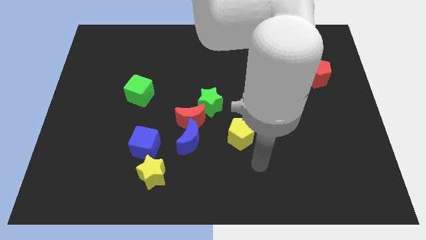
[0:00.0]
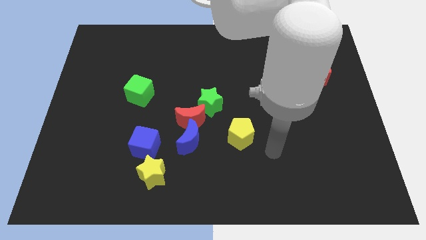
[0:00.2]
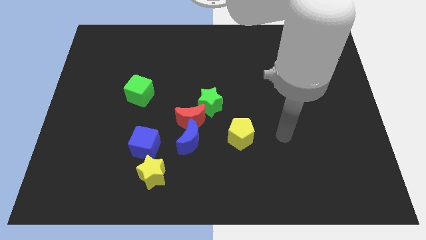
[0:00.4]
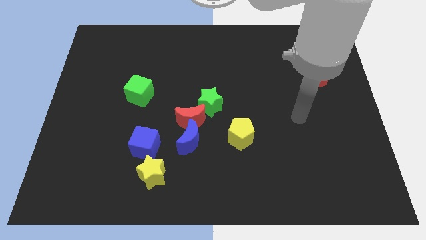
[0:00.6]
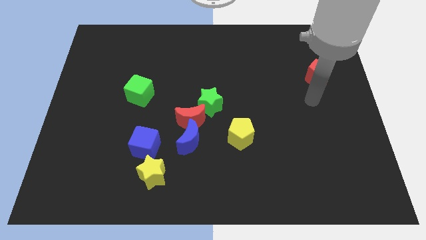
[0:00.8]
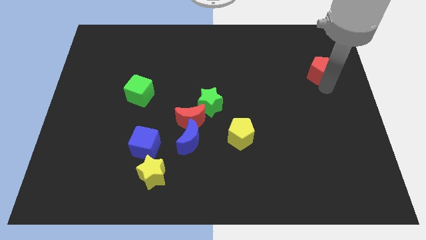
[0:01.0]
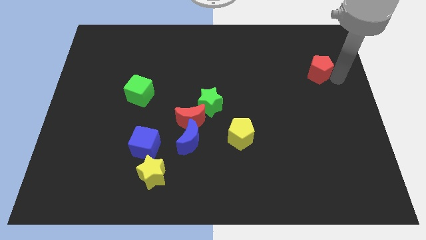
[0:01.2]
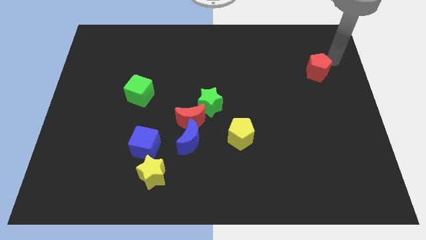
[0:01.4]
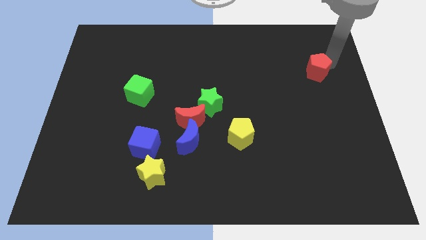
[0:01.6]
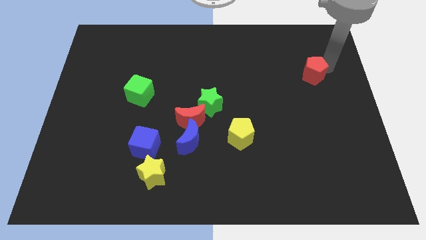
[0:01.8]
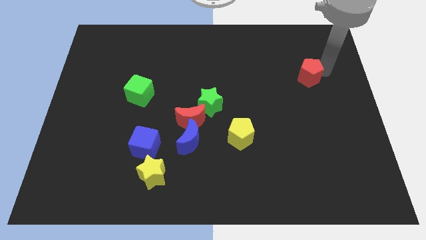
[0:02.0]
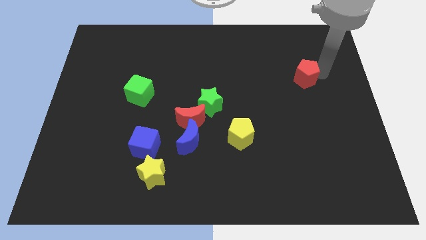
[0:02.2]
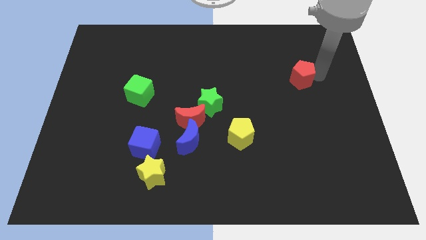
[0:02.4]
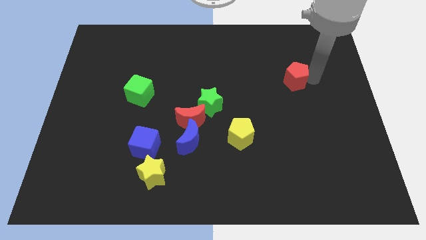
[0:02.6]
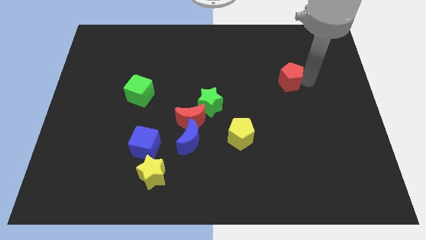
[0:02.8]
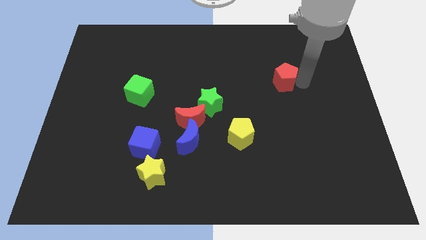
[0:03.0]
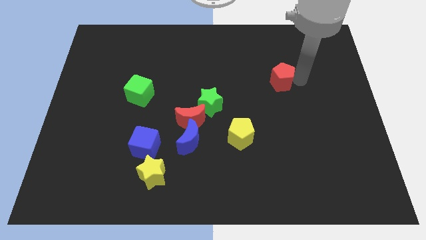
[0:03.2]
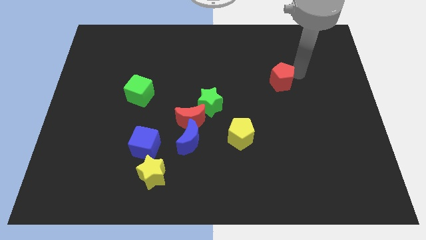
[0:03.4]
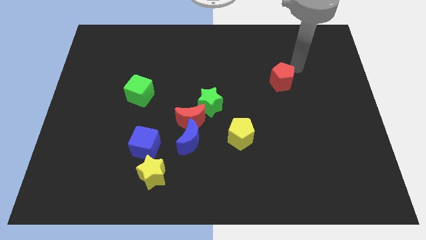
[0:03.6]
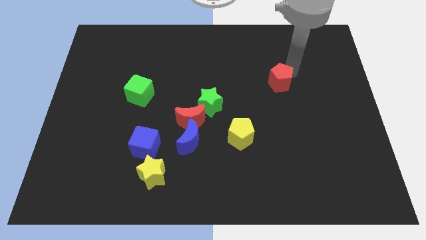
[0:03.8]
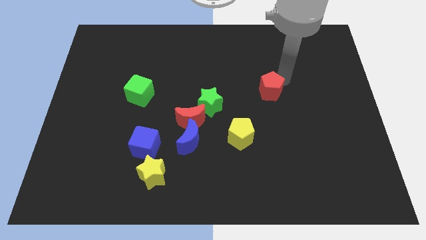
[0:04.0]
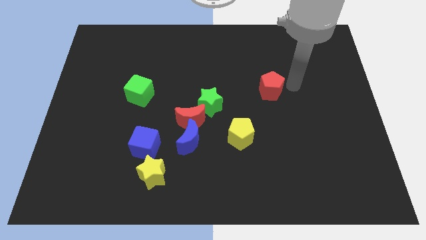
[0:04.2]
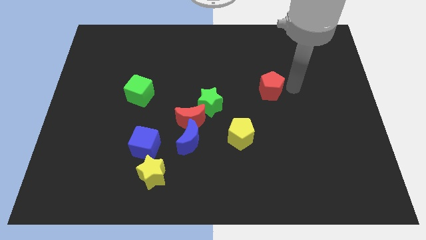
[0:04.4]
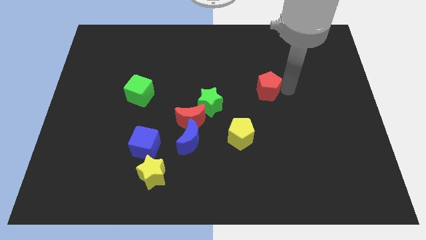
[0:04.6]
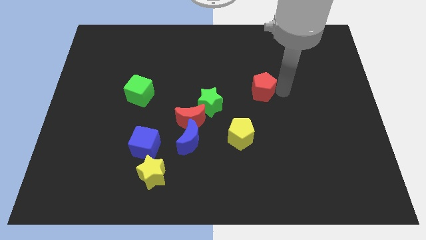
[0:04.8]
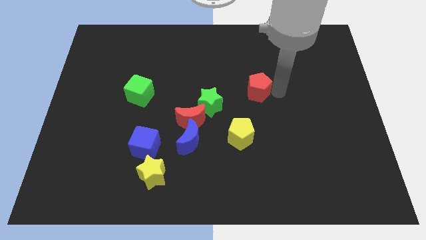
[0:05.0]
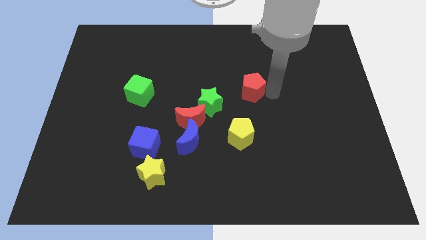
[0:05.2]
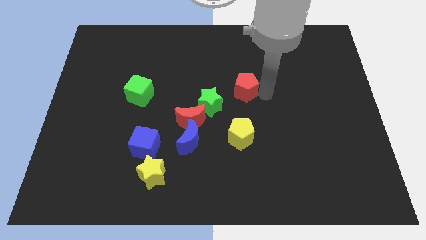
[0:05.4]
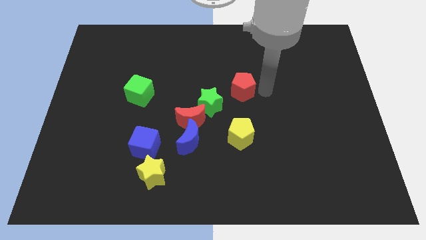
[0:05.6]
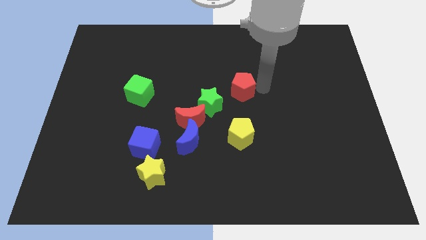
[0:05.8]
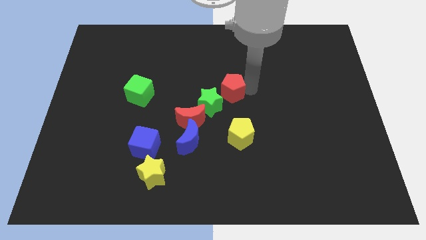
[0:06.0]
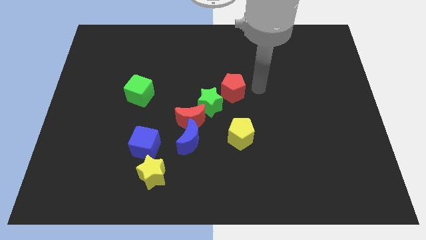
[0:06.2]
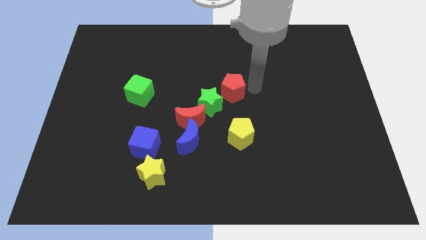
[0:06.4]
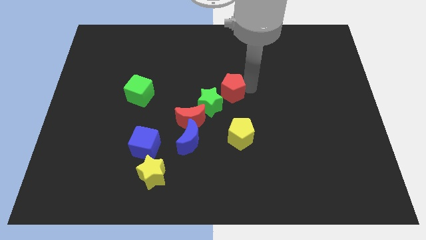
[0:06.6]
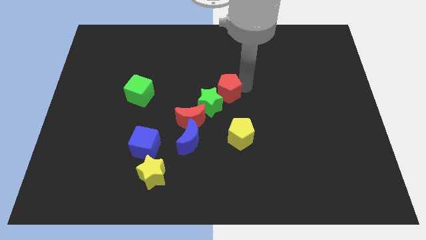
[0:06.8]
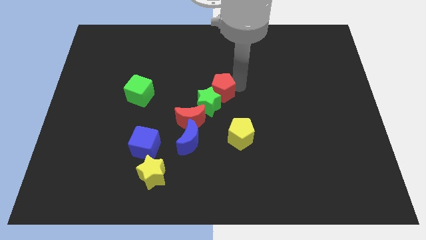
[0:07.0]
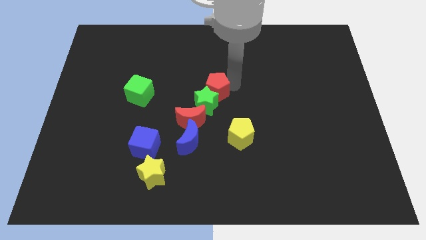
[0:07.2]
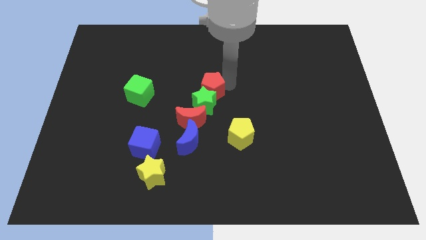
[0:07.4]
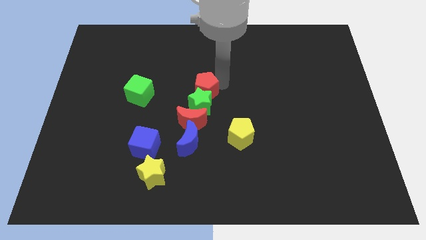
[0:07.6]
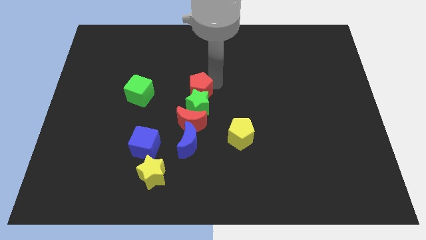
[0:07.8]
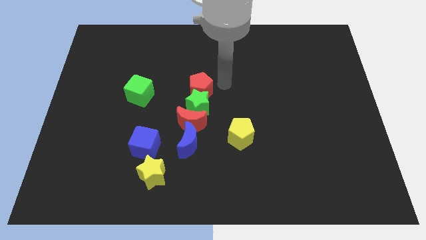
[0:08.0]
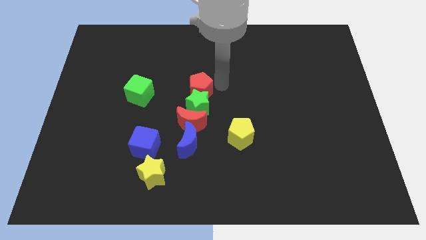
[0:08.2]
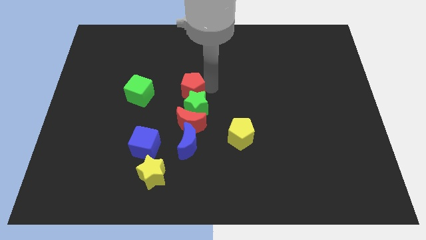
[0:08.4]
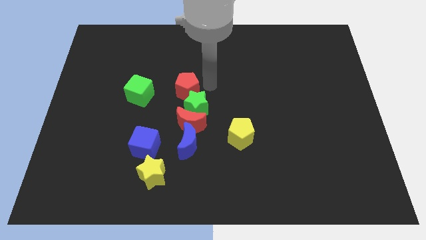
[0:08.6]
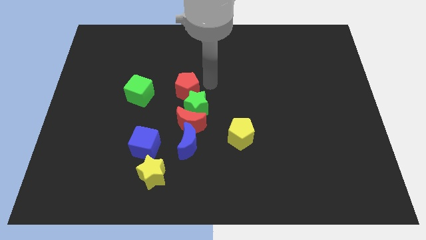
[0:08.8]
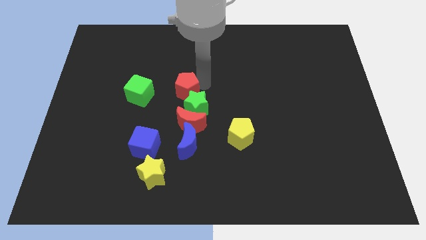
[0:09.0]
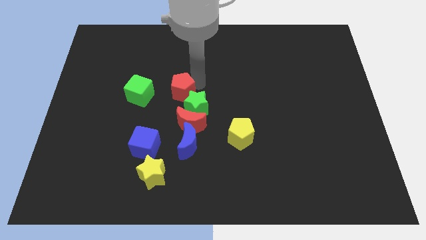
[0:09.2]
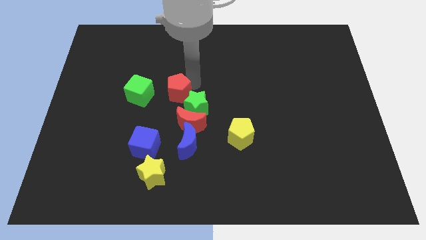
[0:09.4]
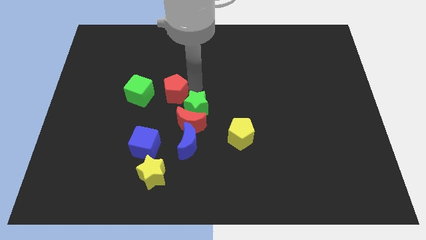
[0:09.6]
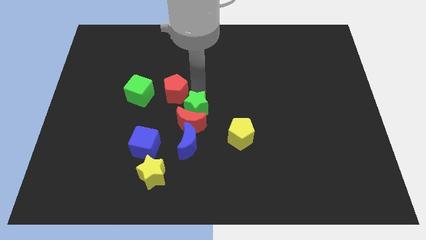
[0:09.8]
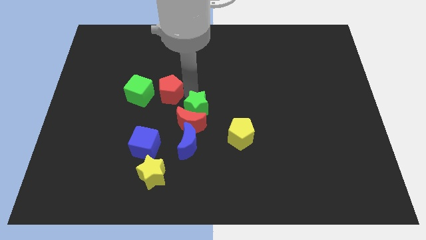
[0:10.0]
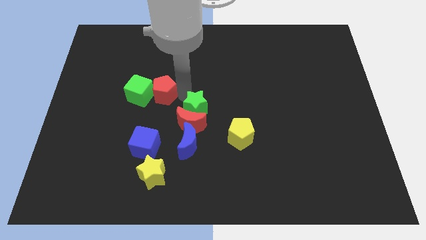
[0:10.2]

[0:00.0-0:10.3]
move the red pentagon towards the green cube

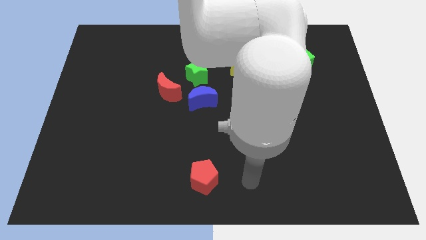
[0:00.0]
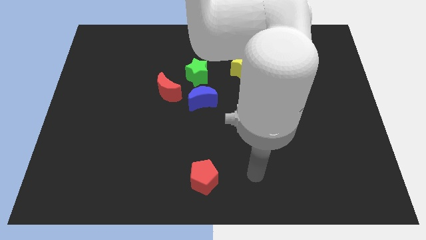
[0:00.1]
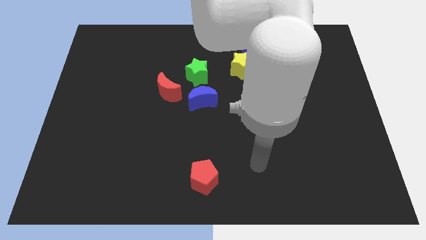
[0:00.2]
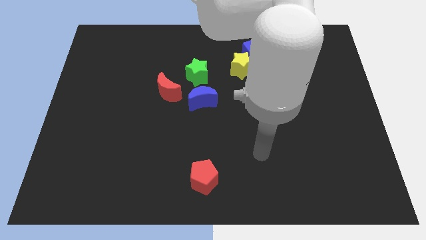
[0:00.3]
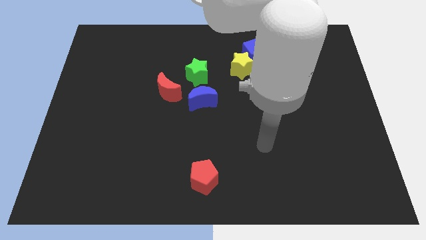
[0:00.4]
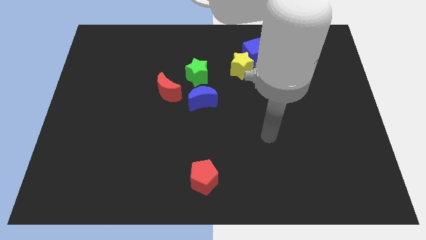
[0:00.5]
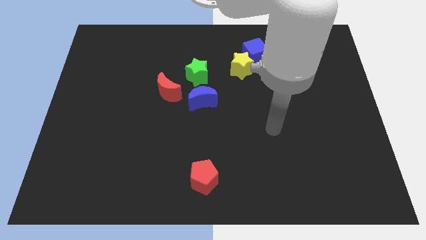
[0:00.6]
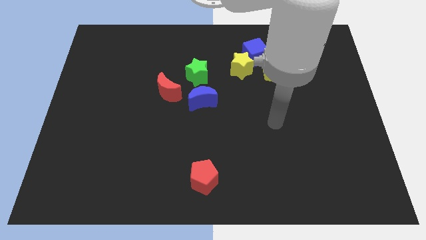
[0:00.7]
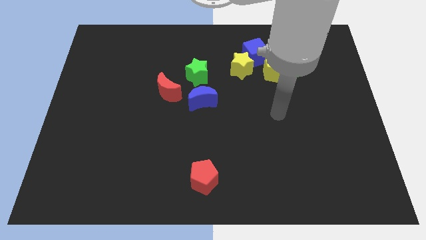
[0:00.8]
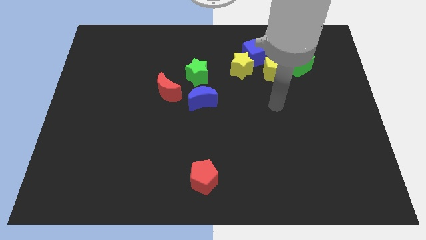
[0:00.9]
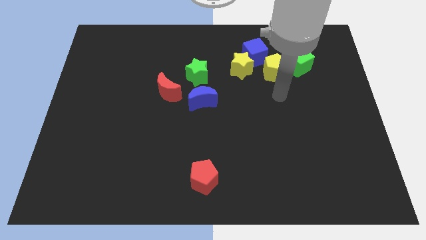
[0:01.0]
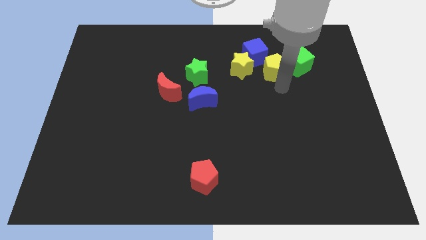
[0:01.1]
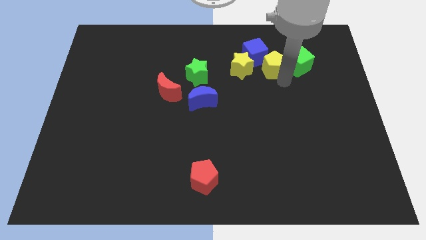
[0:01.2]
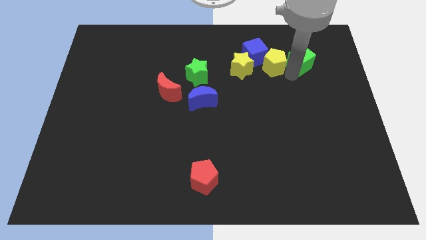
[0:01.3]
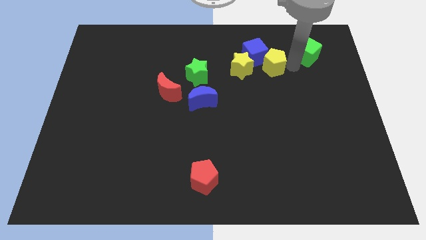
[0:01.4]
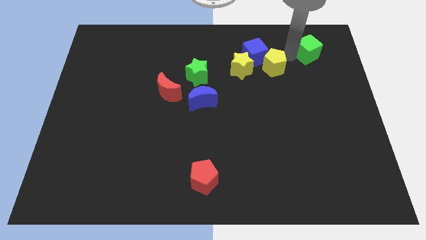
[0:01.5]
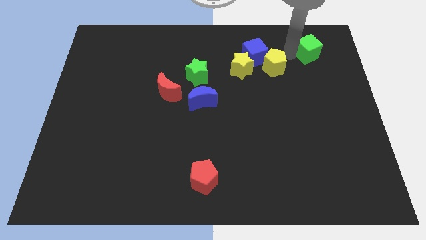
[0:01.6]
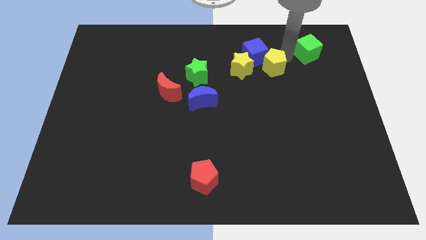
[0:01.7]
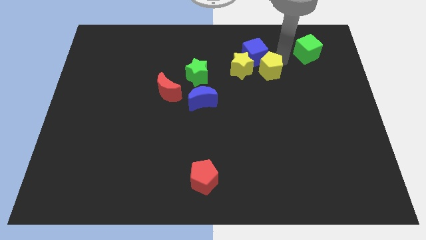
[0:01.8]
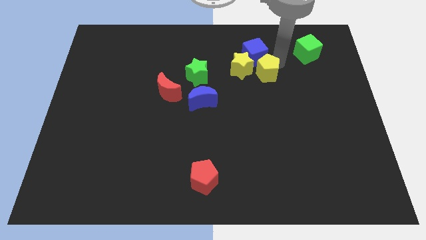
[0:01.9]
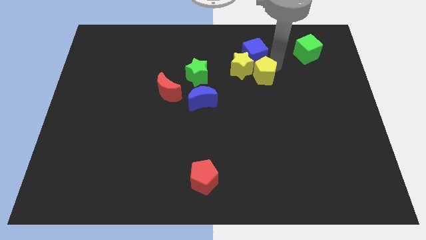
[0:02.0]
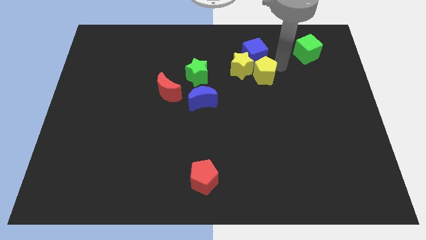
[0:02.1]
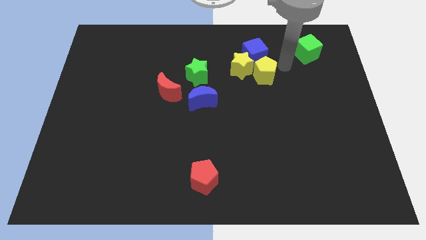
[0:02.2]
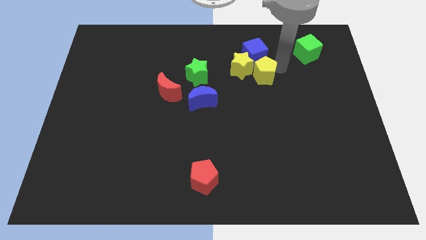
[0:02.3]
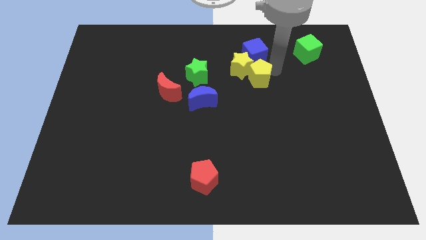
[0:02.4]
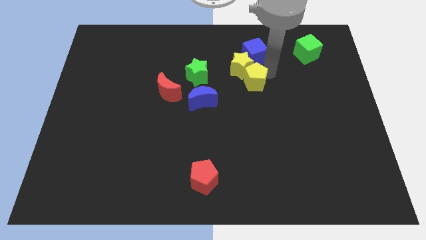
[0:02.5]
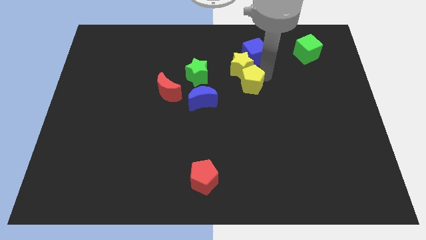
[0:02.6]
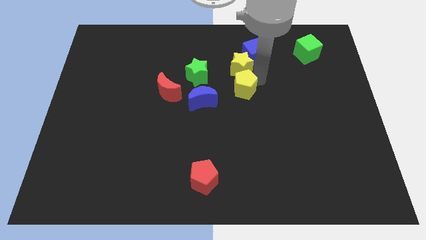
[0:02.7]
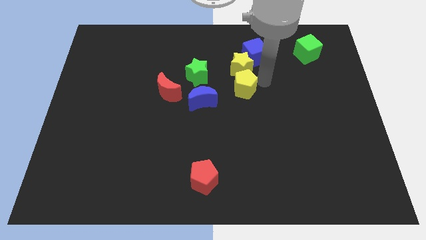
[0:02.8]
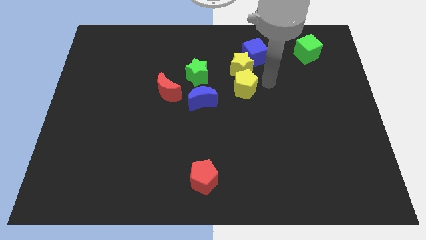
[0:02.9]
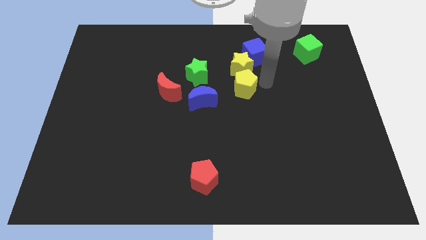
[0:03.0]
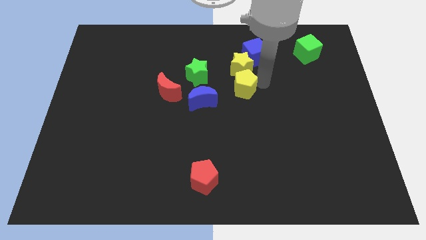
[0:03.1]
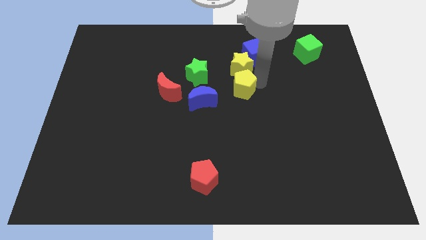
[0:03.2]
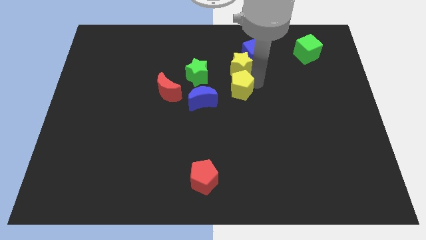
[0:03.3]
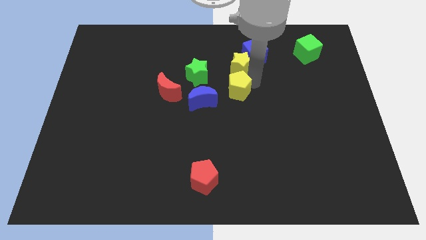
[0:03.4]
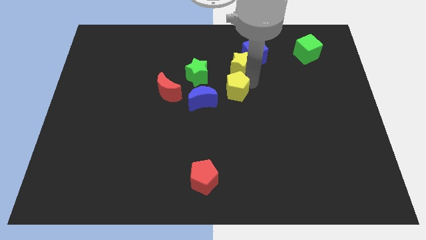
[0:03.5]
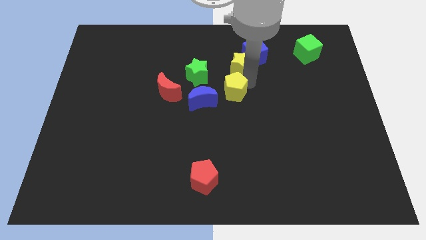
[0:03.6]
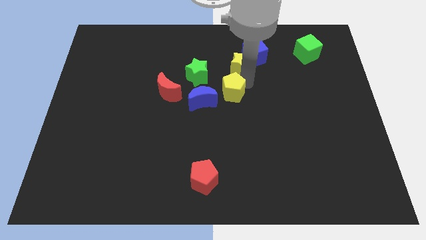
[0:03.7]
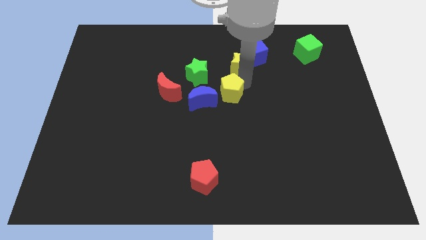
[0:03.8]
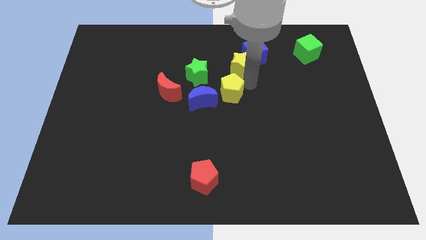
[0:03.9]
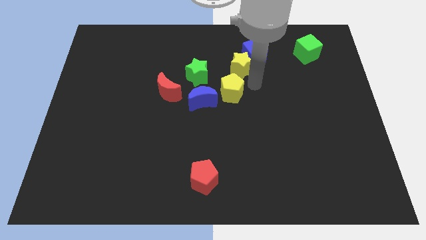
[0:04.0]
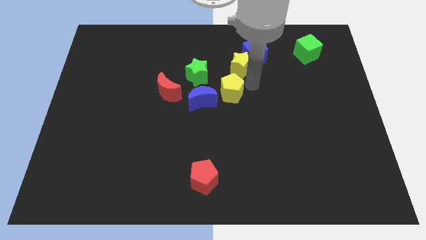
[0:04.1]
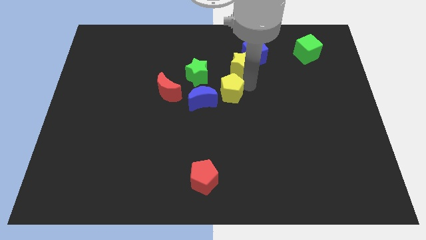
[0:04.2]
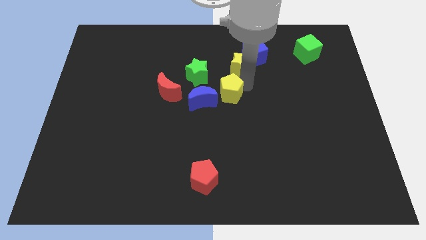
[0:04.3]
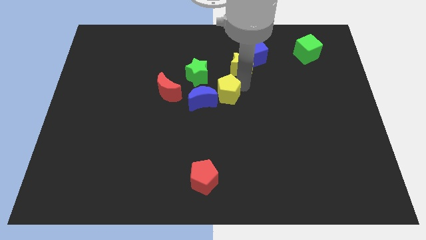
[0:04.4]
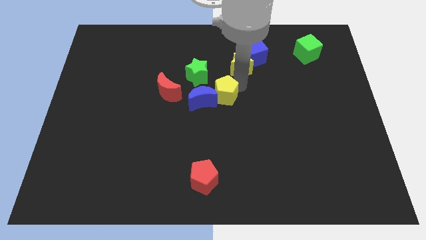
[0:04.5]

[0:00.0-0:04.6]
move the yellow pentagon towards the blue moon
